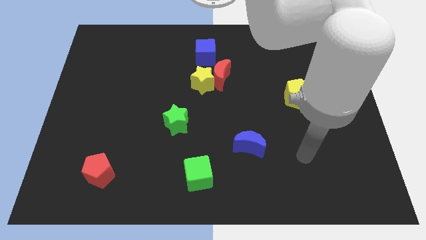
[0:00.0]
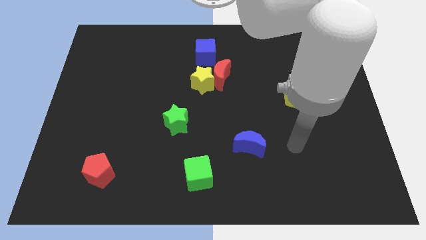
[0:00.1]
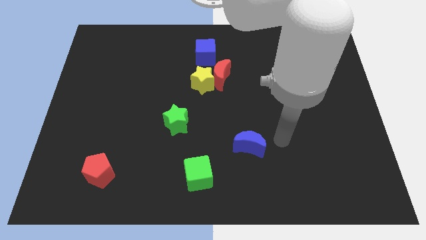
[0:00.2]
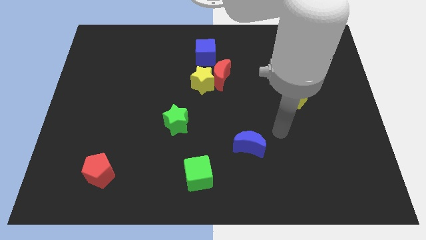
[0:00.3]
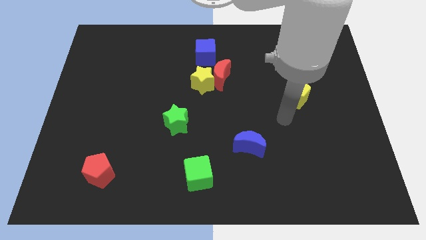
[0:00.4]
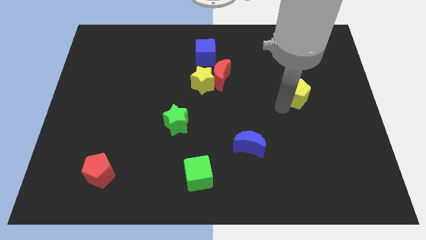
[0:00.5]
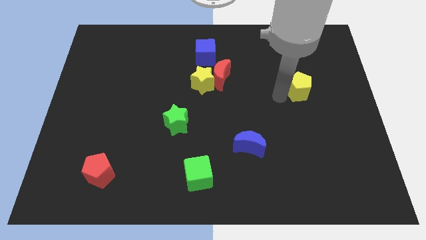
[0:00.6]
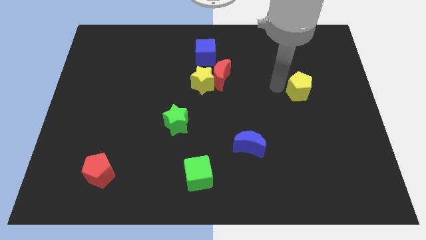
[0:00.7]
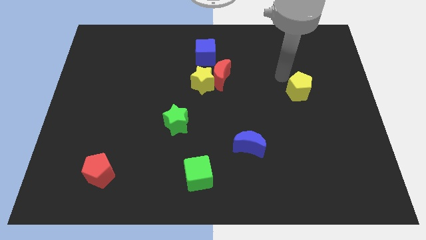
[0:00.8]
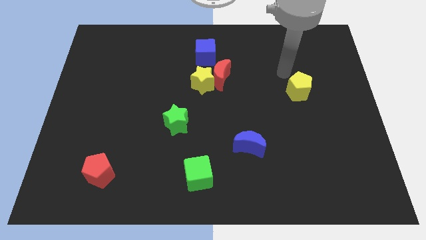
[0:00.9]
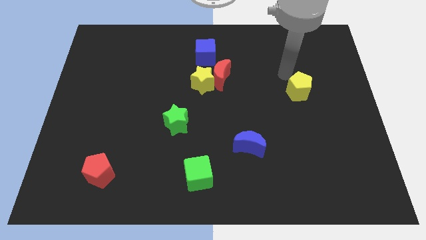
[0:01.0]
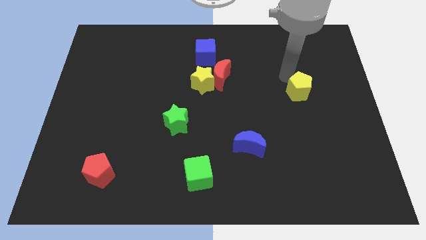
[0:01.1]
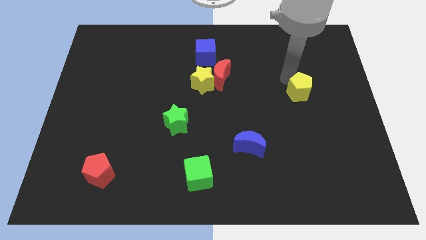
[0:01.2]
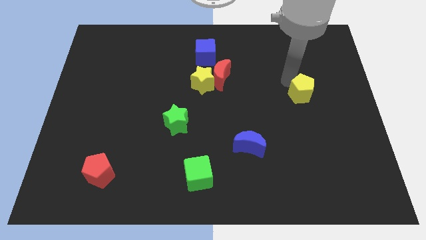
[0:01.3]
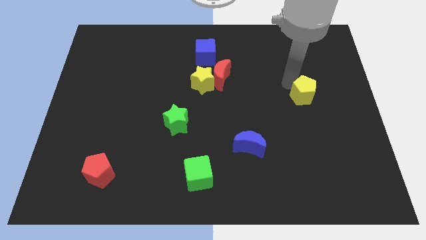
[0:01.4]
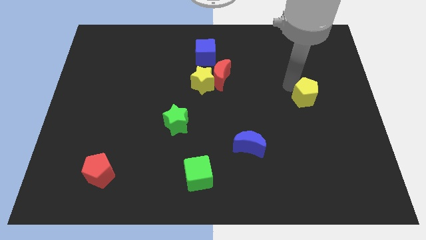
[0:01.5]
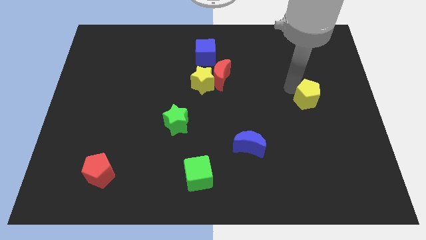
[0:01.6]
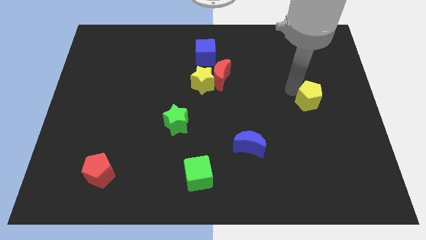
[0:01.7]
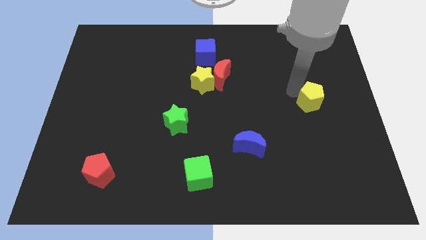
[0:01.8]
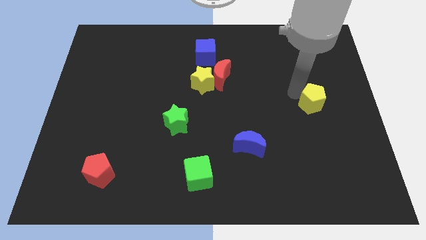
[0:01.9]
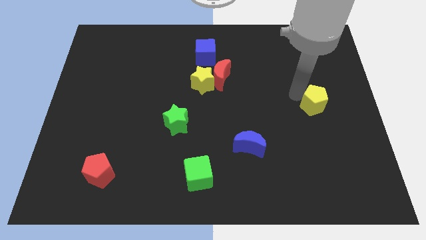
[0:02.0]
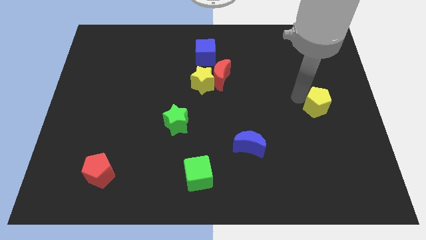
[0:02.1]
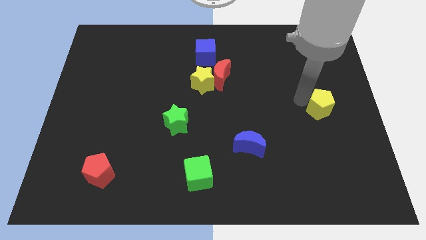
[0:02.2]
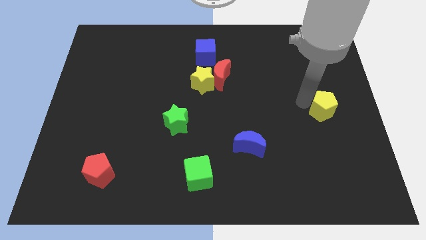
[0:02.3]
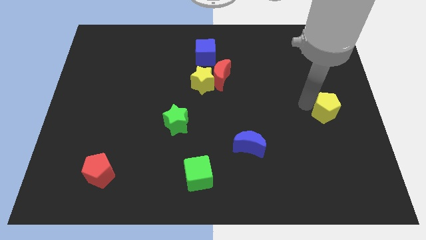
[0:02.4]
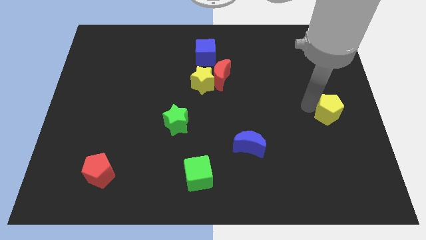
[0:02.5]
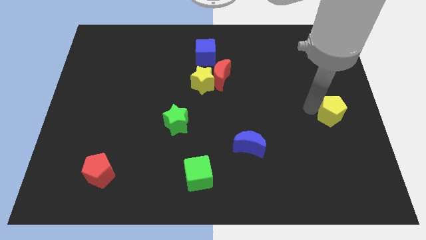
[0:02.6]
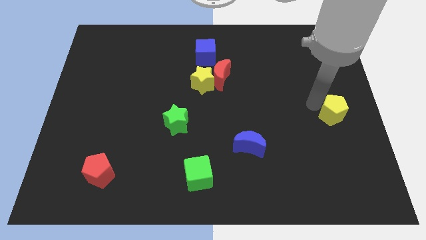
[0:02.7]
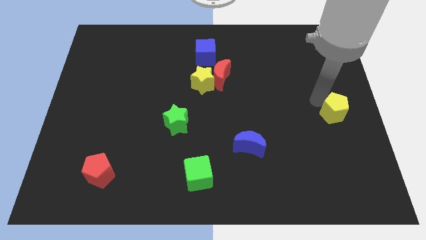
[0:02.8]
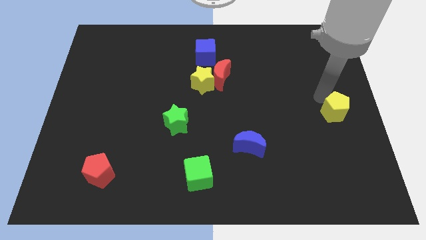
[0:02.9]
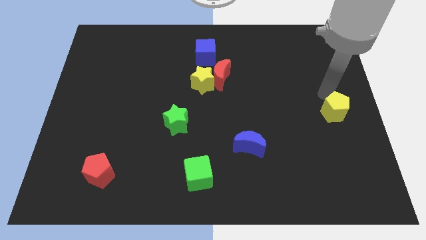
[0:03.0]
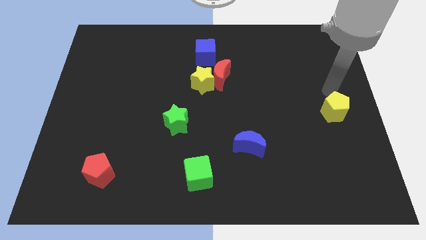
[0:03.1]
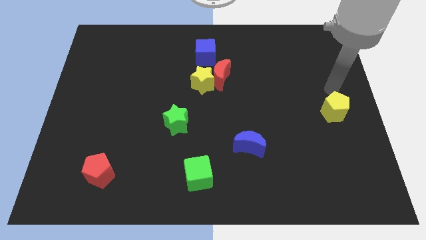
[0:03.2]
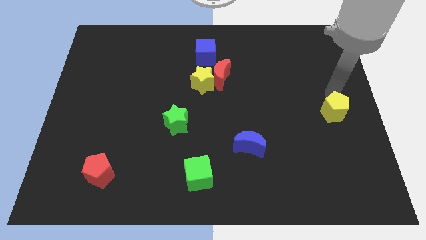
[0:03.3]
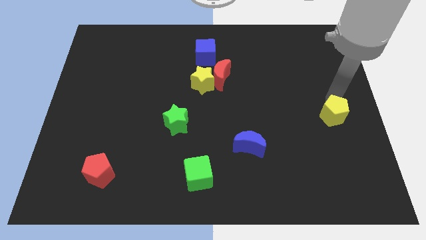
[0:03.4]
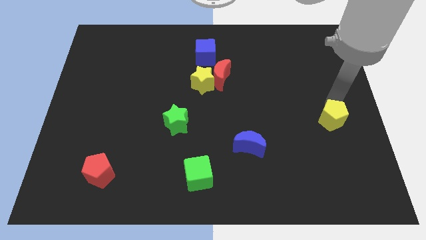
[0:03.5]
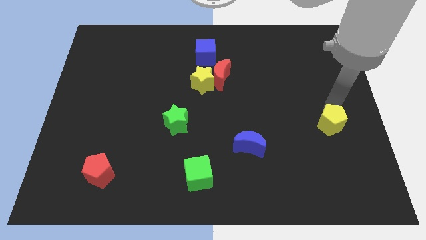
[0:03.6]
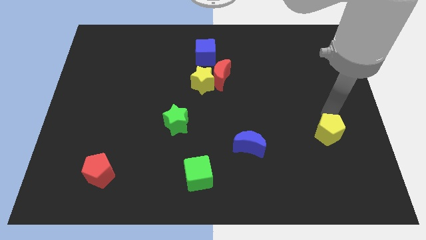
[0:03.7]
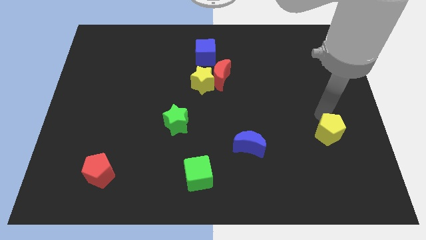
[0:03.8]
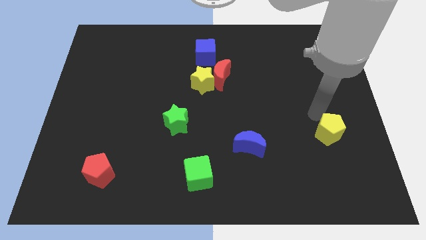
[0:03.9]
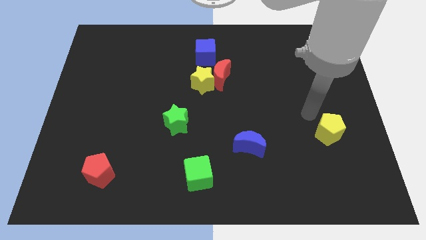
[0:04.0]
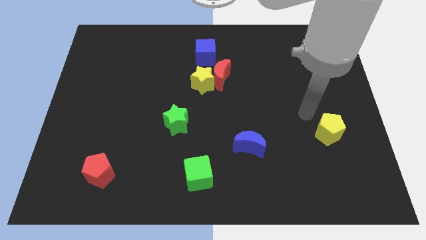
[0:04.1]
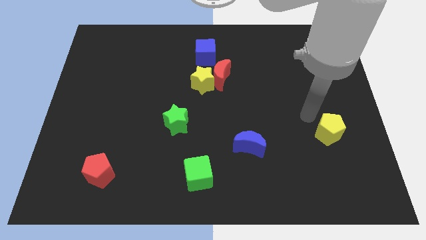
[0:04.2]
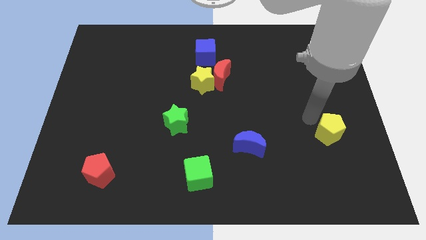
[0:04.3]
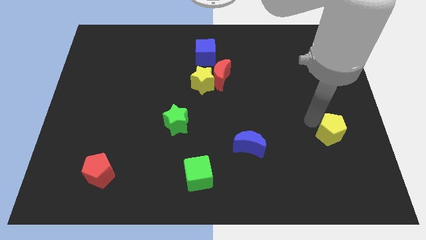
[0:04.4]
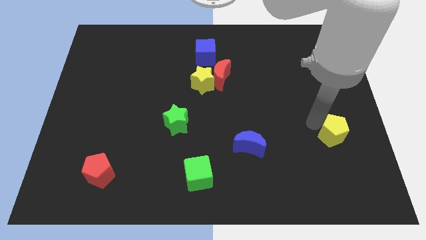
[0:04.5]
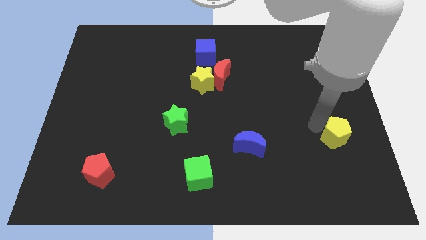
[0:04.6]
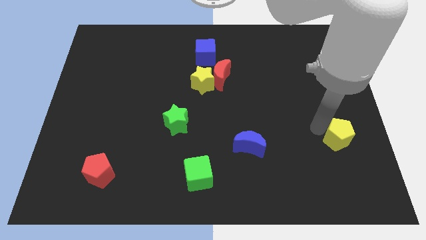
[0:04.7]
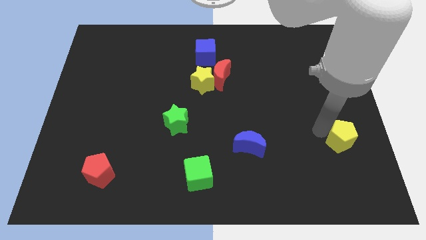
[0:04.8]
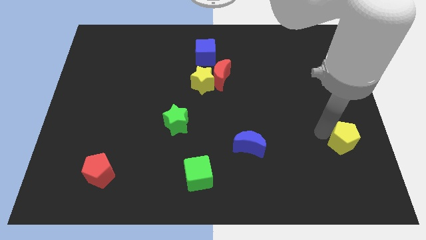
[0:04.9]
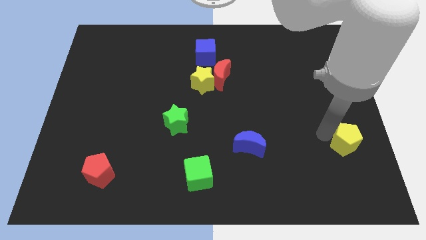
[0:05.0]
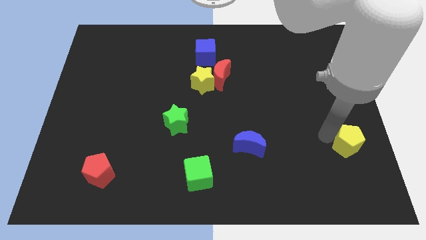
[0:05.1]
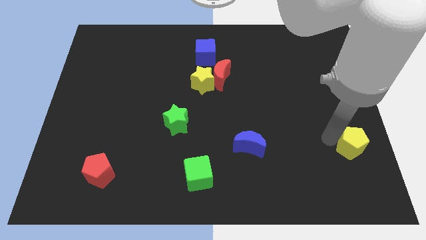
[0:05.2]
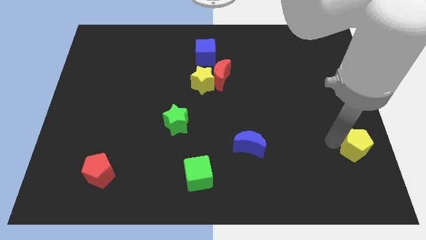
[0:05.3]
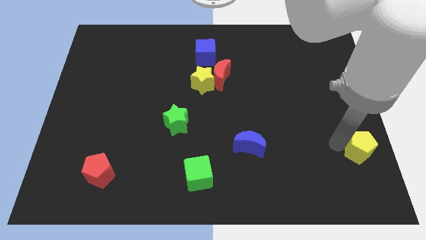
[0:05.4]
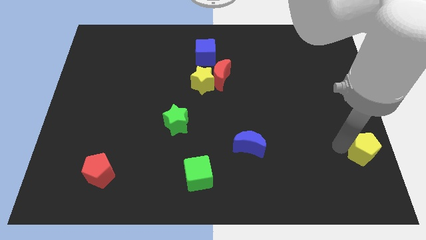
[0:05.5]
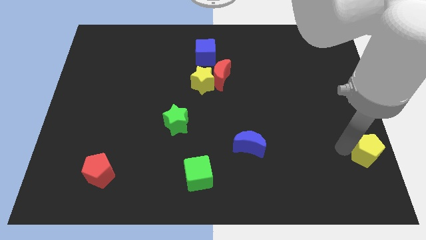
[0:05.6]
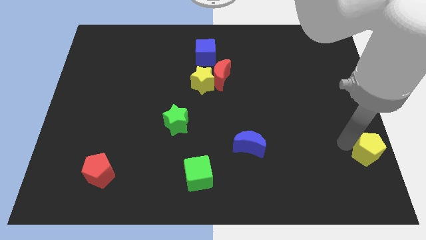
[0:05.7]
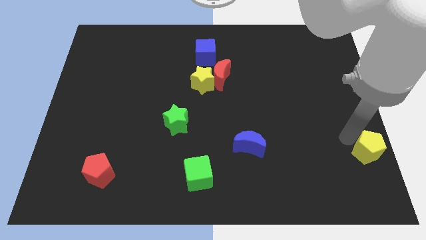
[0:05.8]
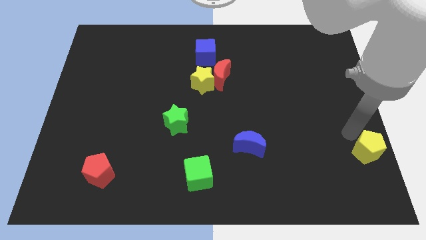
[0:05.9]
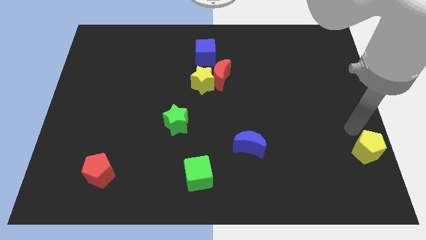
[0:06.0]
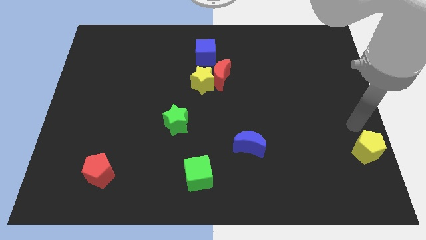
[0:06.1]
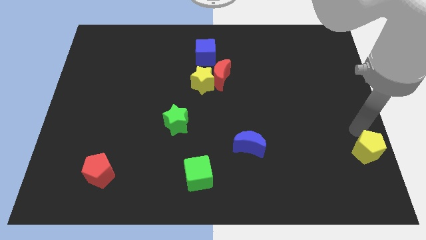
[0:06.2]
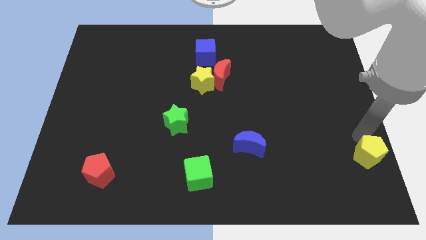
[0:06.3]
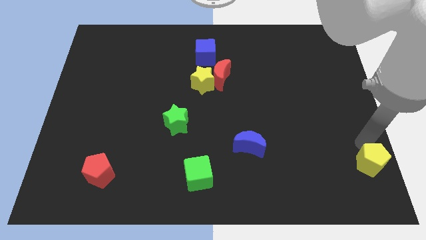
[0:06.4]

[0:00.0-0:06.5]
move the yellow pentagon to the lower right corner
